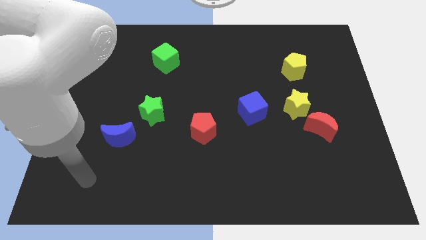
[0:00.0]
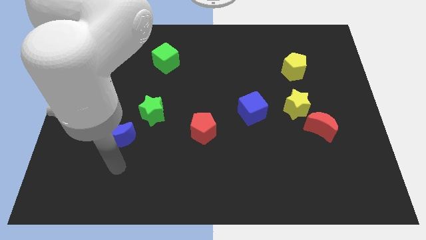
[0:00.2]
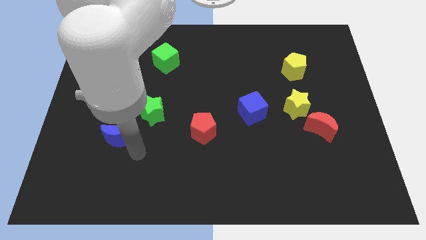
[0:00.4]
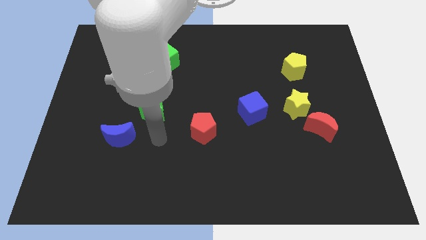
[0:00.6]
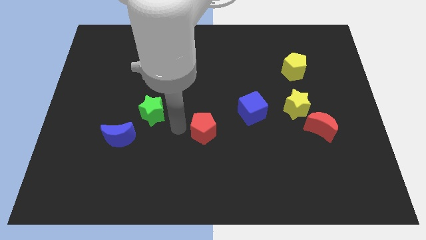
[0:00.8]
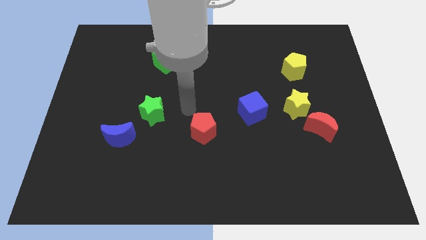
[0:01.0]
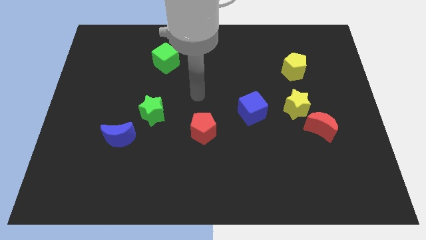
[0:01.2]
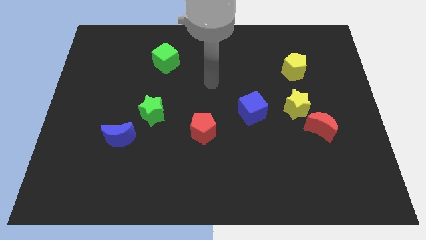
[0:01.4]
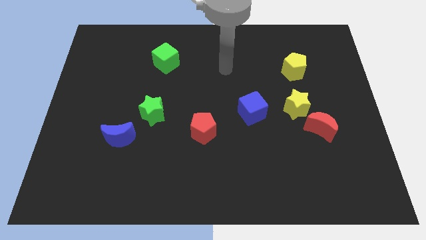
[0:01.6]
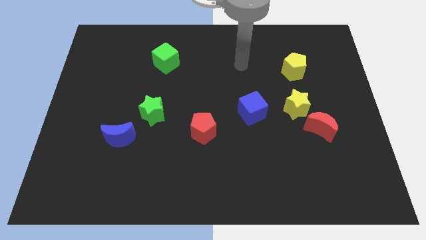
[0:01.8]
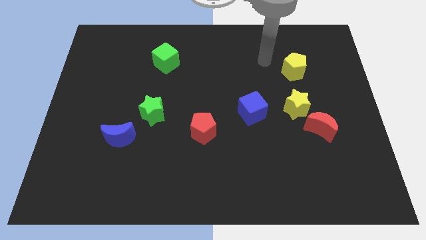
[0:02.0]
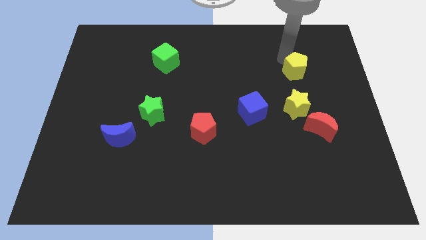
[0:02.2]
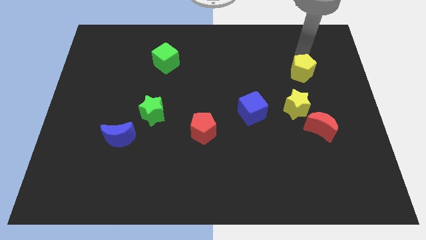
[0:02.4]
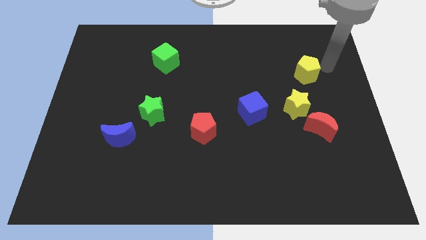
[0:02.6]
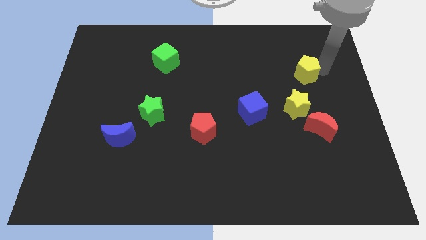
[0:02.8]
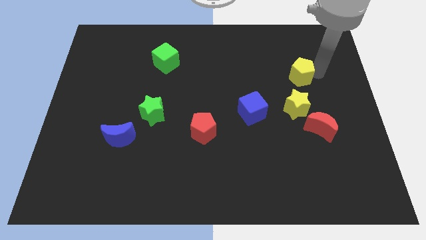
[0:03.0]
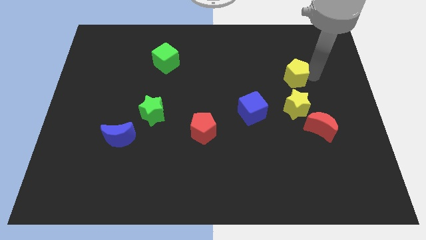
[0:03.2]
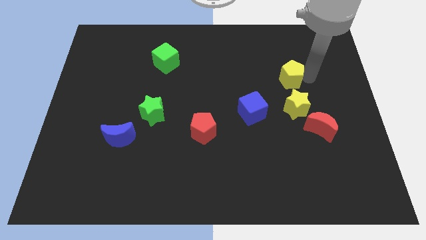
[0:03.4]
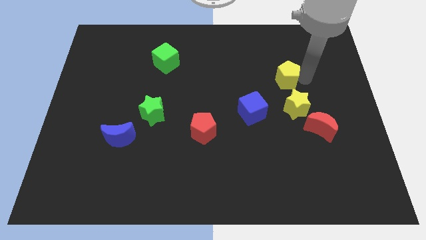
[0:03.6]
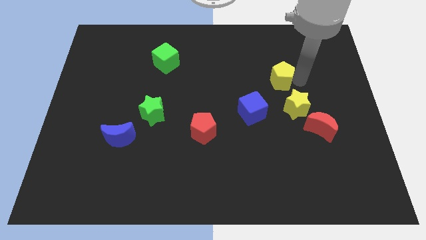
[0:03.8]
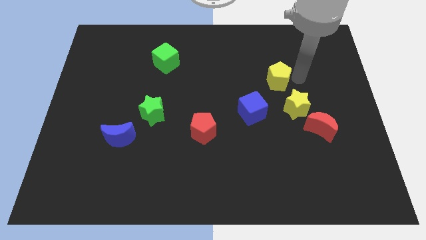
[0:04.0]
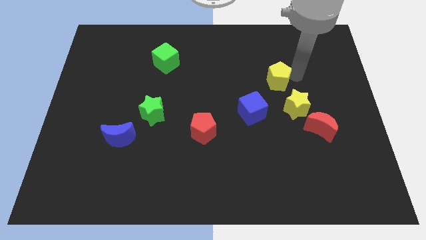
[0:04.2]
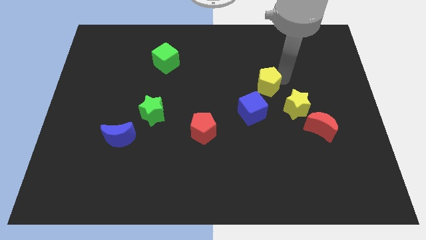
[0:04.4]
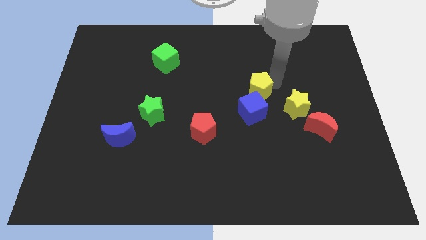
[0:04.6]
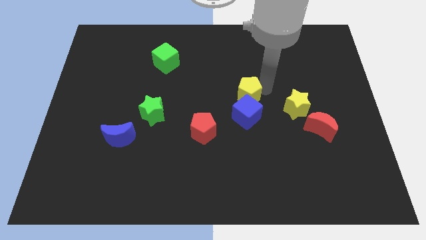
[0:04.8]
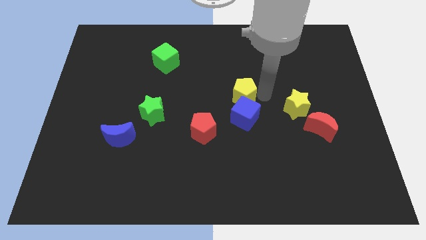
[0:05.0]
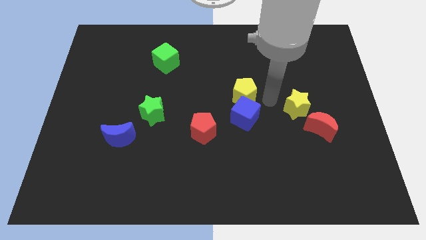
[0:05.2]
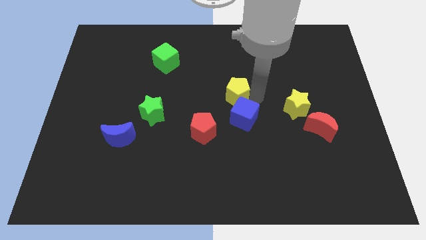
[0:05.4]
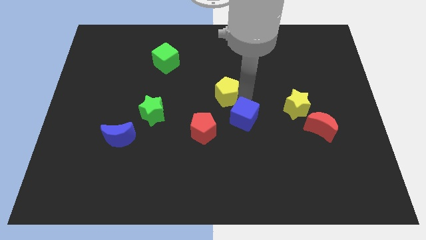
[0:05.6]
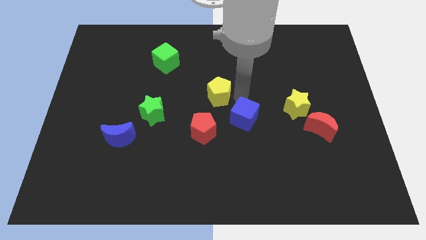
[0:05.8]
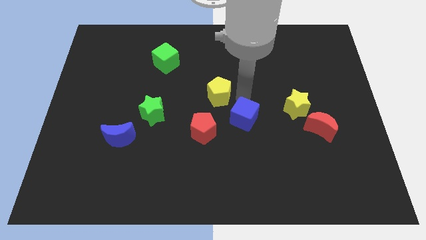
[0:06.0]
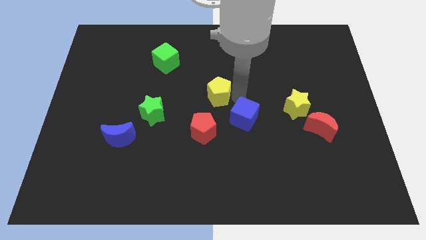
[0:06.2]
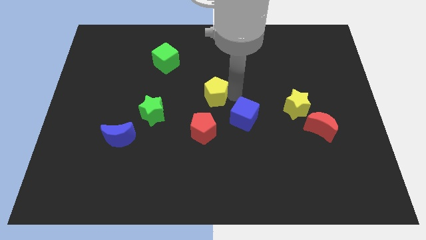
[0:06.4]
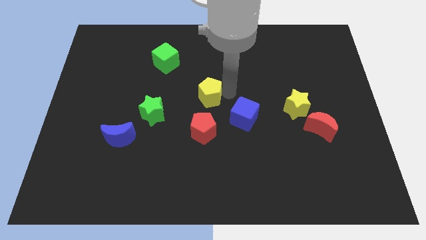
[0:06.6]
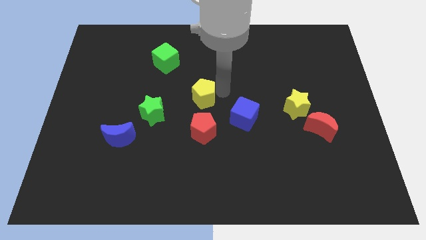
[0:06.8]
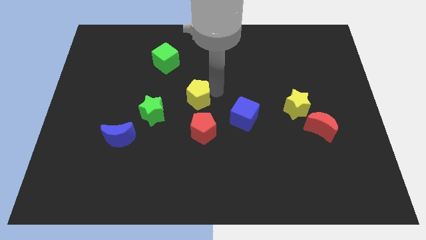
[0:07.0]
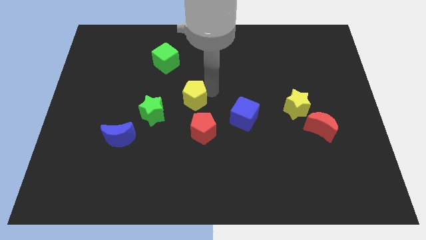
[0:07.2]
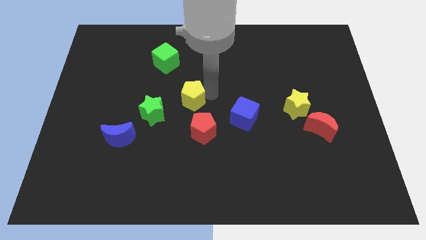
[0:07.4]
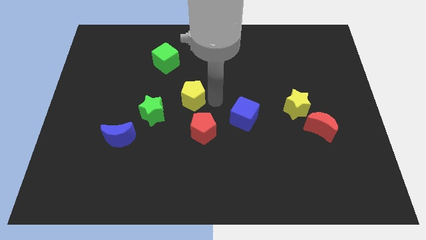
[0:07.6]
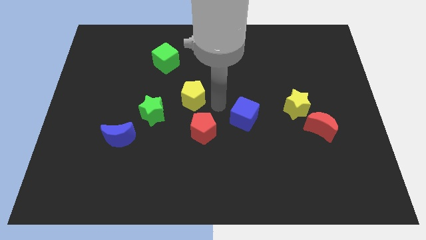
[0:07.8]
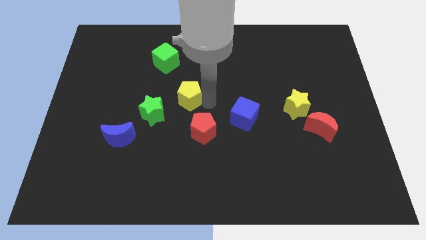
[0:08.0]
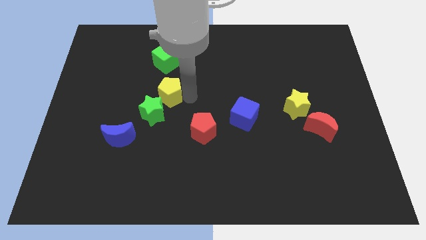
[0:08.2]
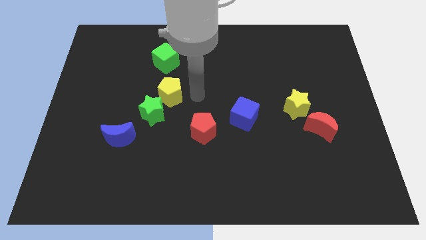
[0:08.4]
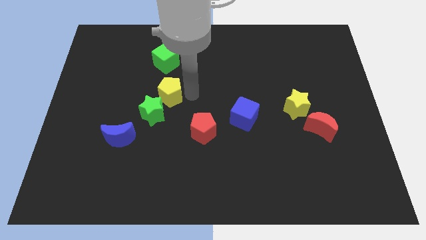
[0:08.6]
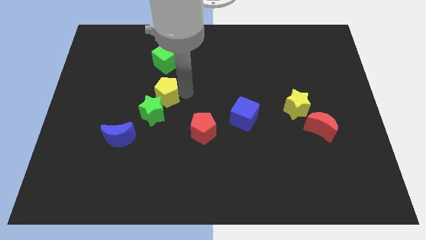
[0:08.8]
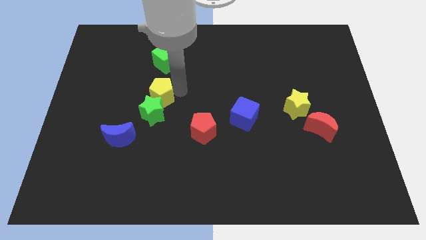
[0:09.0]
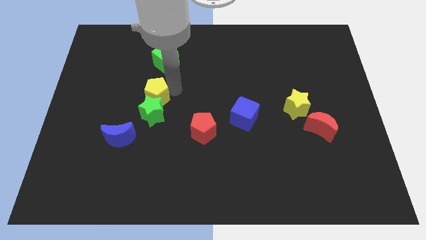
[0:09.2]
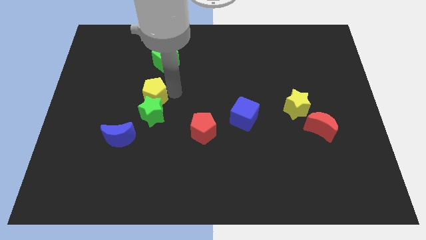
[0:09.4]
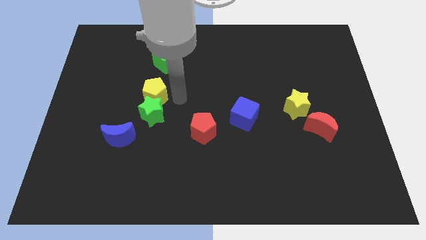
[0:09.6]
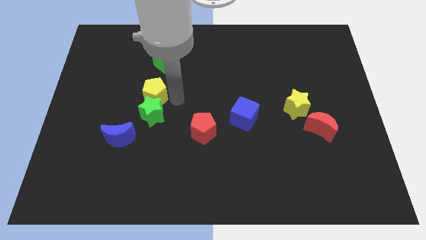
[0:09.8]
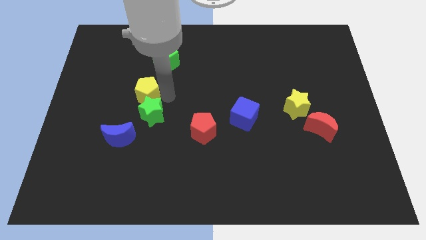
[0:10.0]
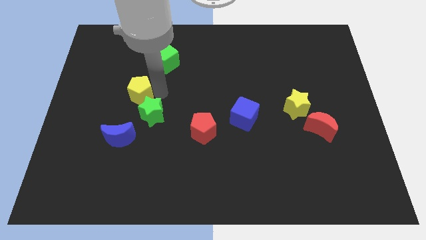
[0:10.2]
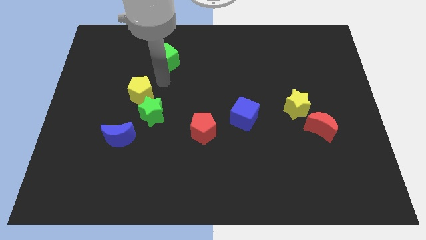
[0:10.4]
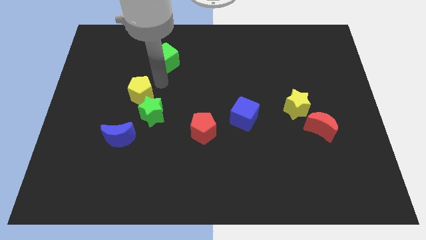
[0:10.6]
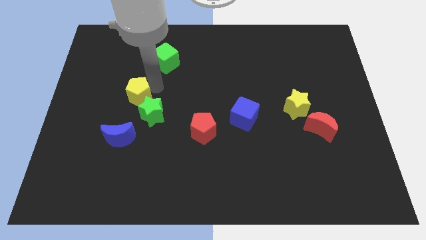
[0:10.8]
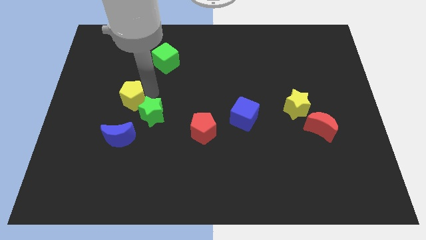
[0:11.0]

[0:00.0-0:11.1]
slide the yellow pentagon left of the green star

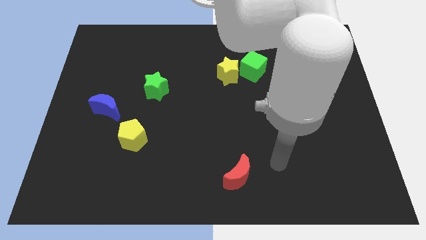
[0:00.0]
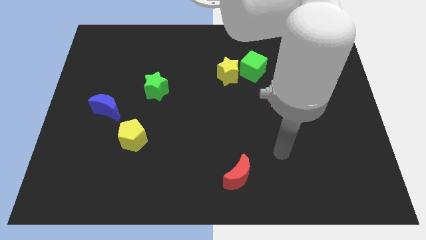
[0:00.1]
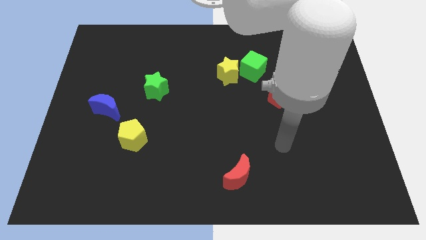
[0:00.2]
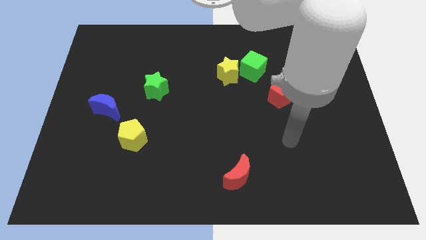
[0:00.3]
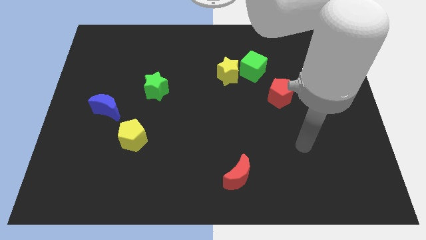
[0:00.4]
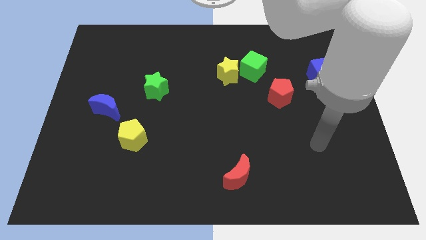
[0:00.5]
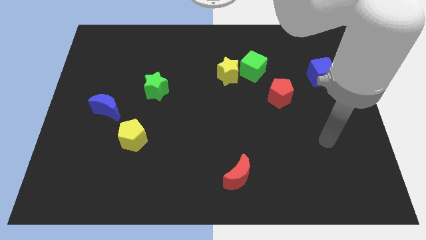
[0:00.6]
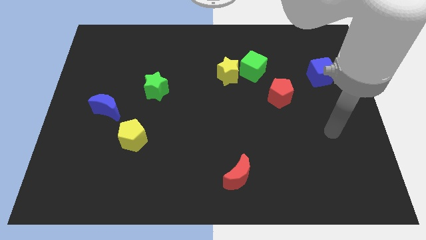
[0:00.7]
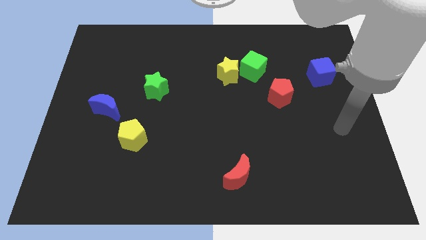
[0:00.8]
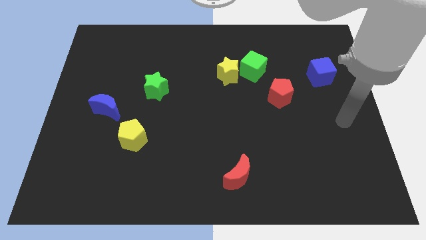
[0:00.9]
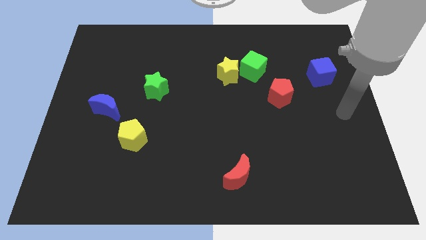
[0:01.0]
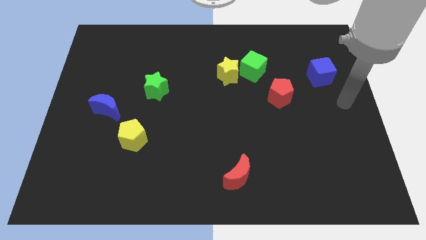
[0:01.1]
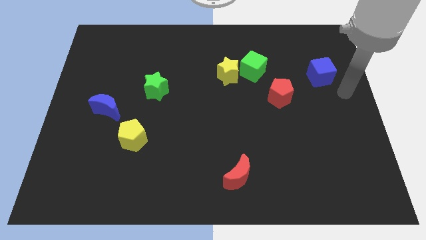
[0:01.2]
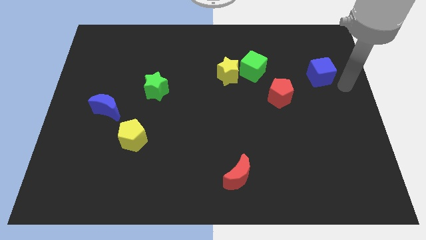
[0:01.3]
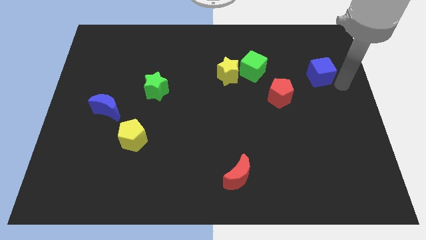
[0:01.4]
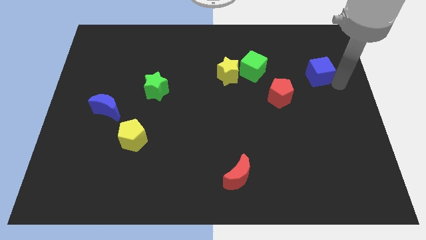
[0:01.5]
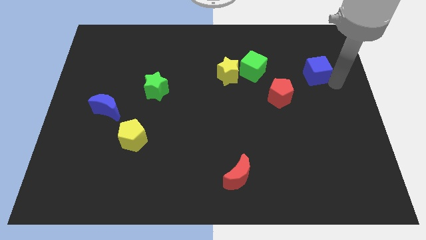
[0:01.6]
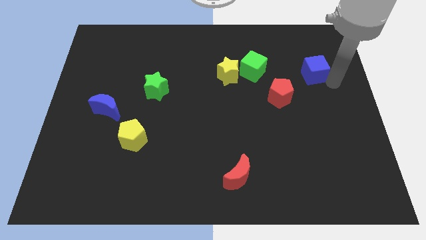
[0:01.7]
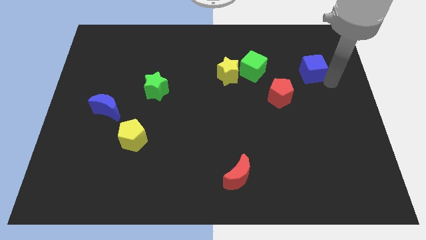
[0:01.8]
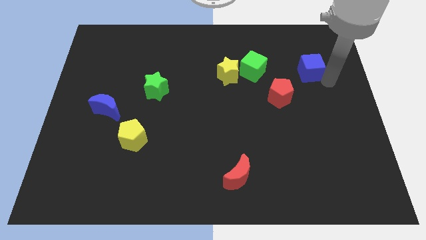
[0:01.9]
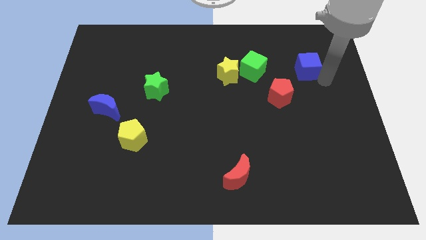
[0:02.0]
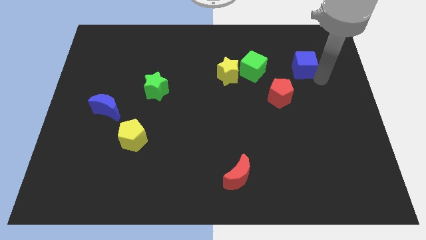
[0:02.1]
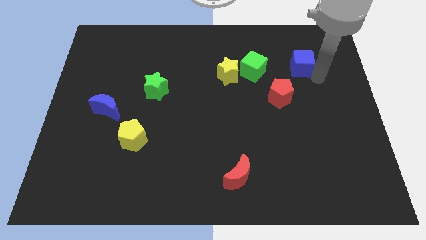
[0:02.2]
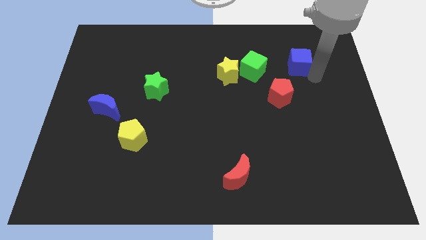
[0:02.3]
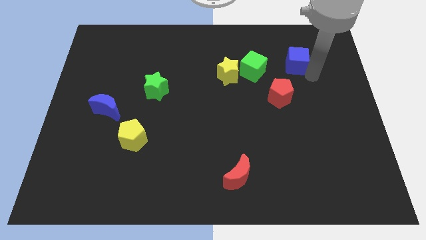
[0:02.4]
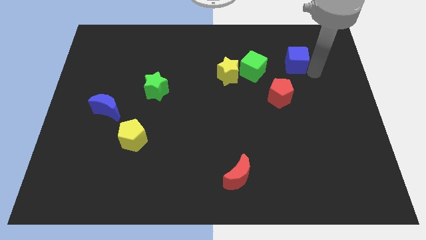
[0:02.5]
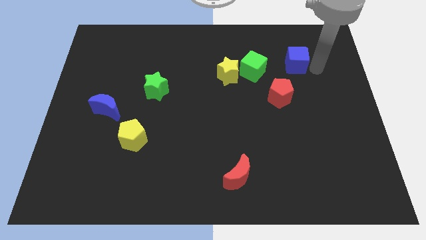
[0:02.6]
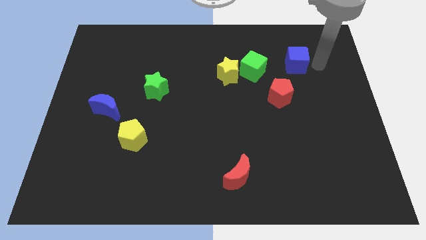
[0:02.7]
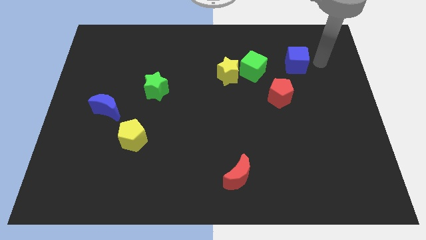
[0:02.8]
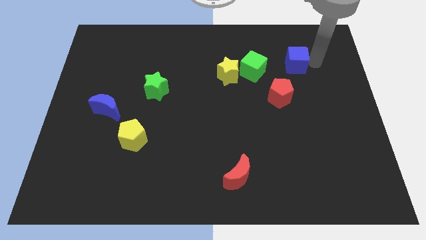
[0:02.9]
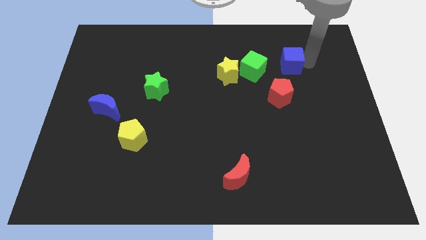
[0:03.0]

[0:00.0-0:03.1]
push the blue cube above the red pentagon
